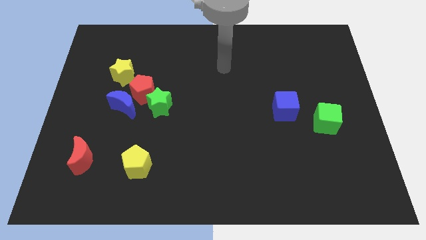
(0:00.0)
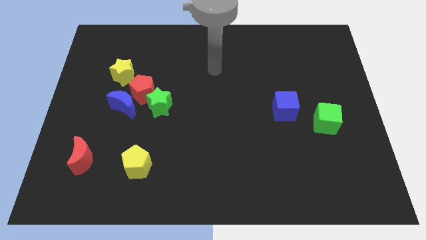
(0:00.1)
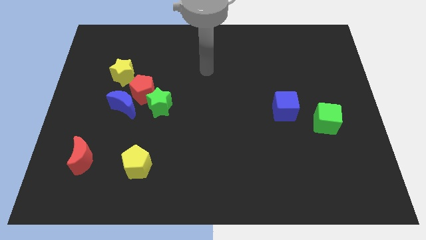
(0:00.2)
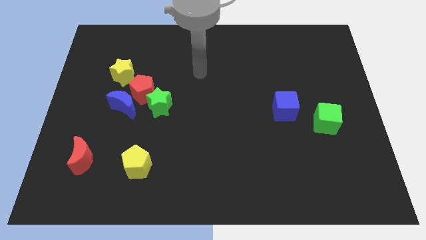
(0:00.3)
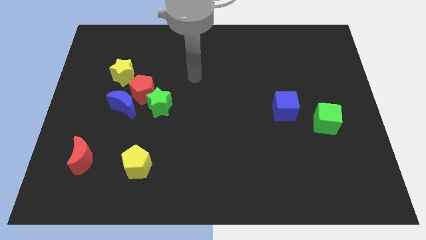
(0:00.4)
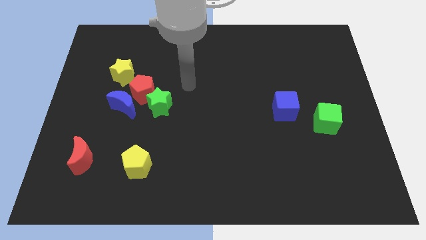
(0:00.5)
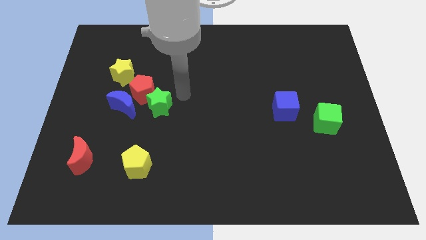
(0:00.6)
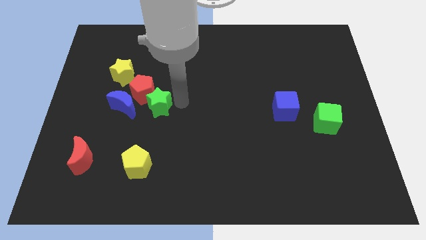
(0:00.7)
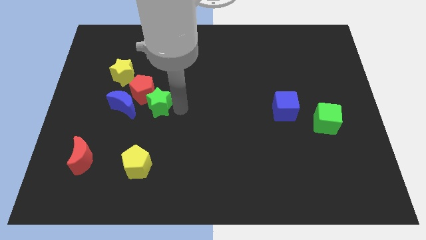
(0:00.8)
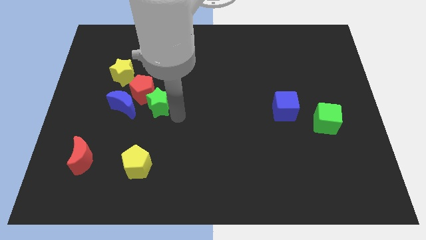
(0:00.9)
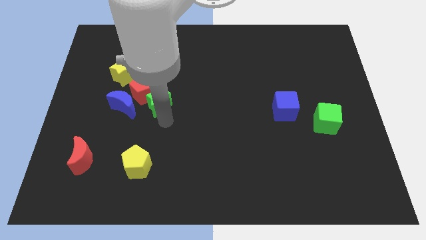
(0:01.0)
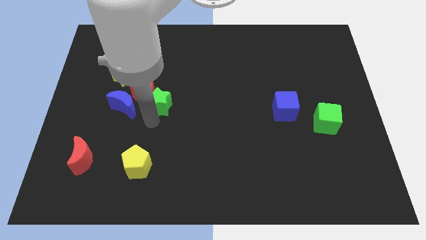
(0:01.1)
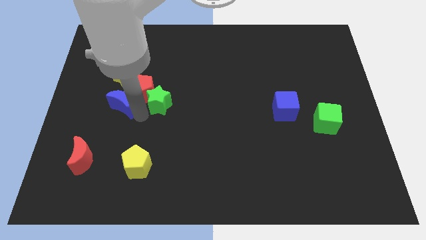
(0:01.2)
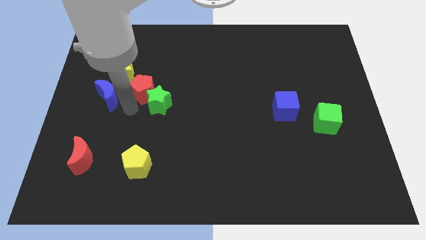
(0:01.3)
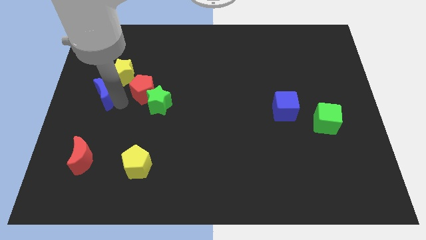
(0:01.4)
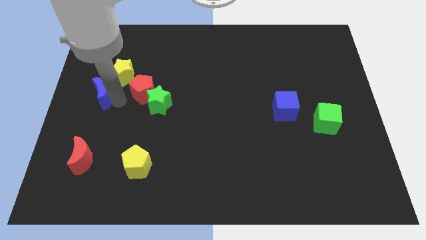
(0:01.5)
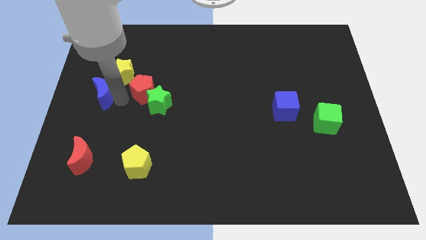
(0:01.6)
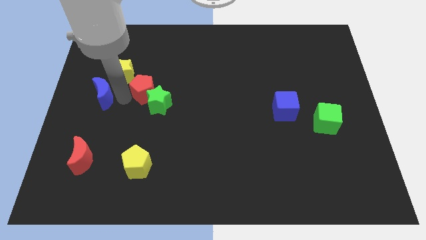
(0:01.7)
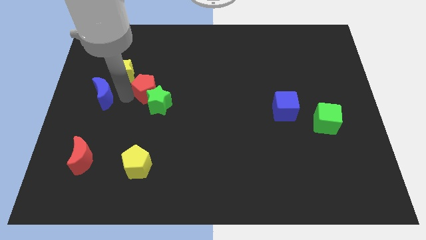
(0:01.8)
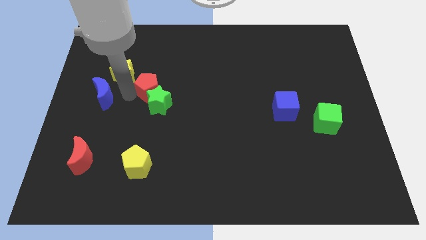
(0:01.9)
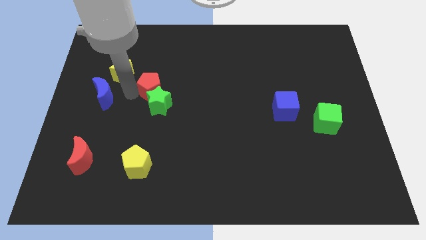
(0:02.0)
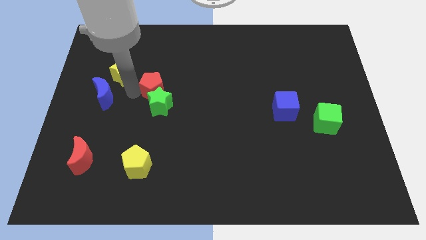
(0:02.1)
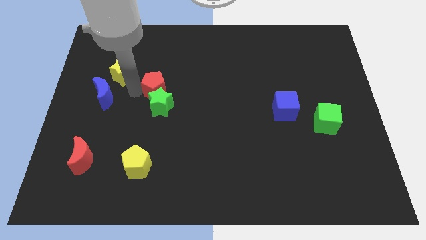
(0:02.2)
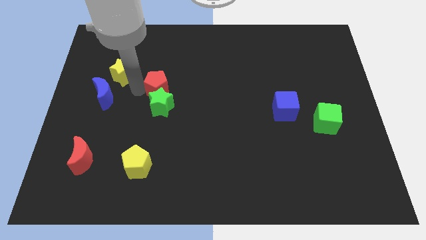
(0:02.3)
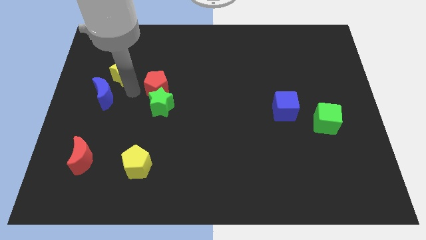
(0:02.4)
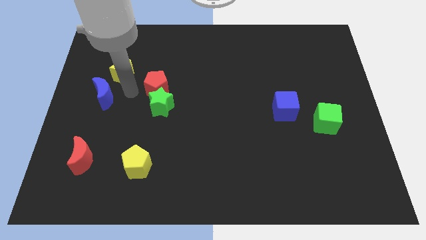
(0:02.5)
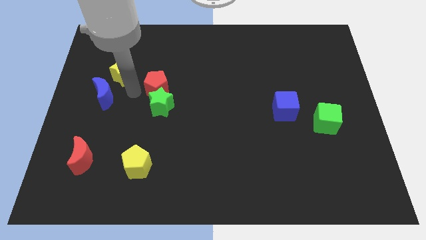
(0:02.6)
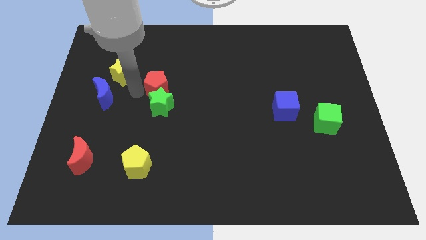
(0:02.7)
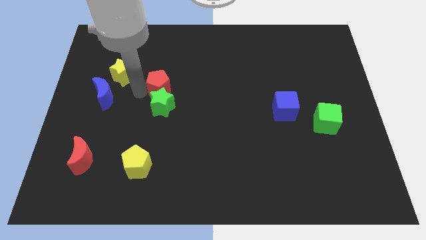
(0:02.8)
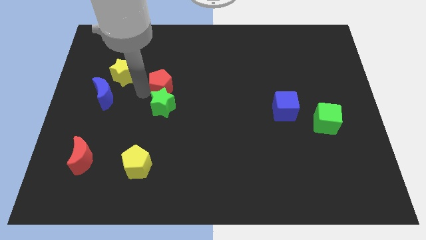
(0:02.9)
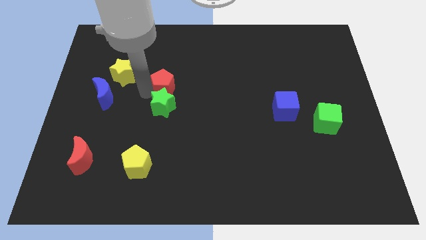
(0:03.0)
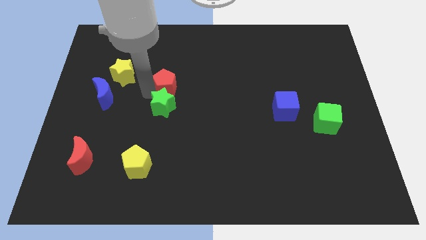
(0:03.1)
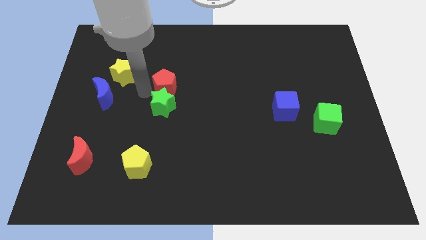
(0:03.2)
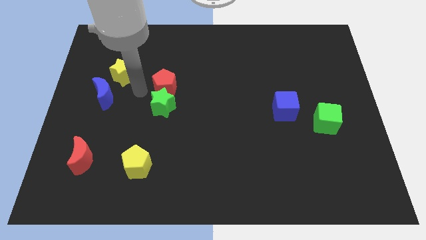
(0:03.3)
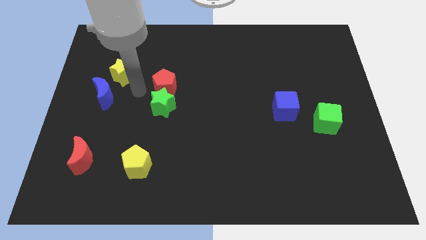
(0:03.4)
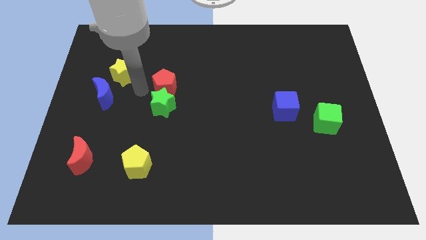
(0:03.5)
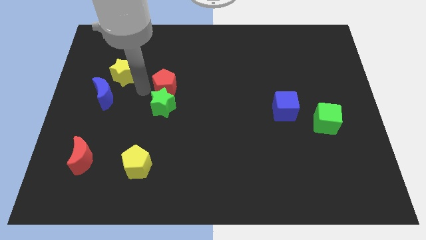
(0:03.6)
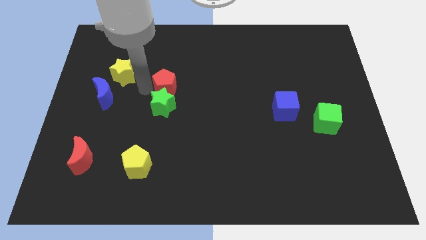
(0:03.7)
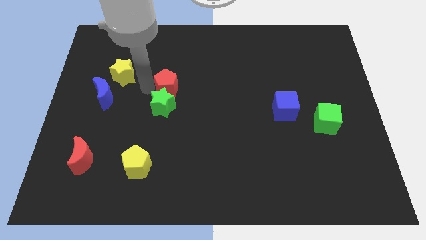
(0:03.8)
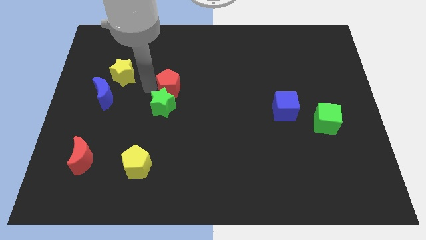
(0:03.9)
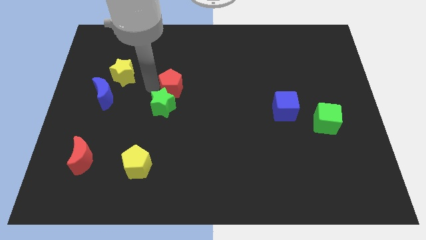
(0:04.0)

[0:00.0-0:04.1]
separate the red pentagon from the blue moon, green star, and yellow star

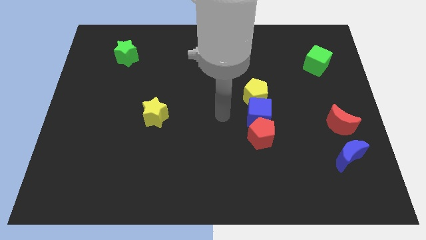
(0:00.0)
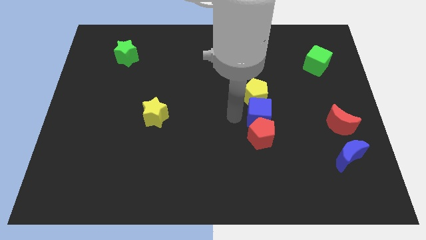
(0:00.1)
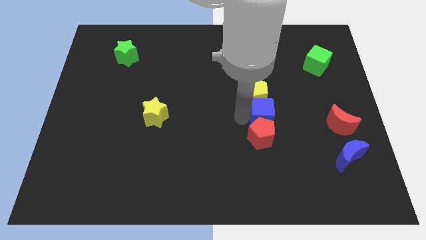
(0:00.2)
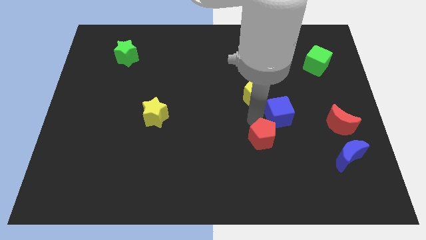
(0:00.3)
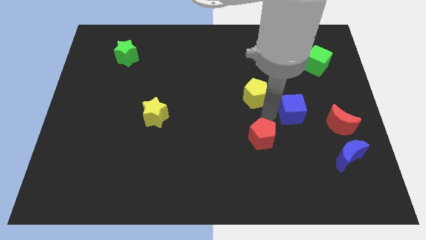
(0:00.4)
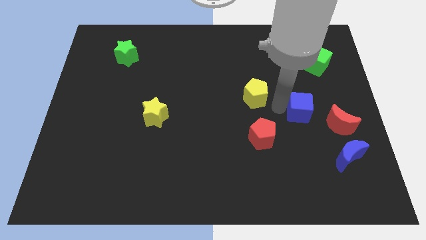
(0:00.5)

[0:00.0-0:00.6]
move the yellow pentagon away from the blue cube

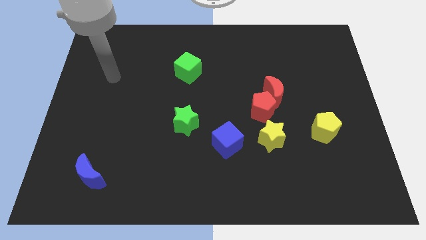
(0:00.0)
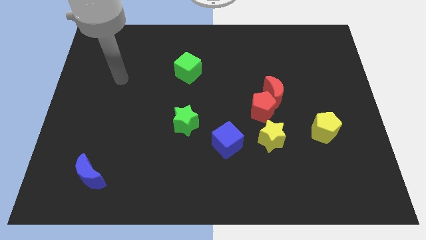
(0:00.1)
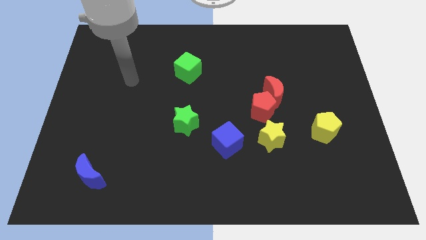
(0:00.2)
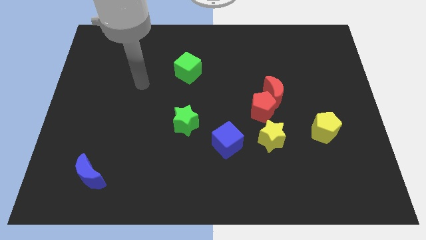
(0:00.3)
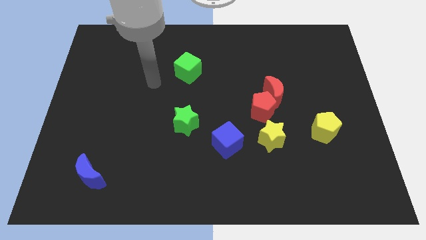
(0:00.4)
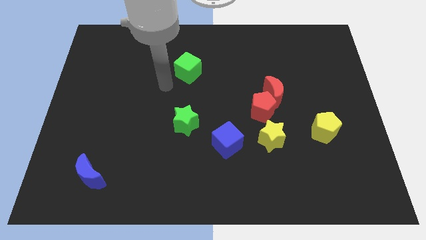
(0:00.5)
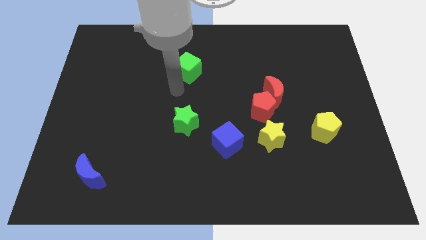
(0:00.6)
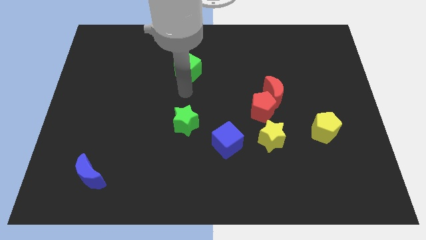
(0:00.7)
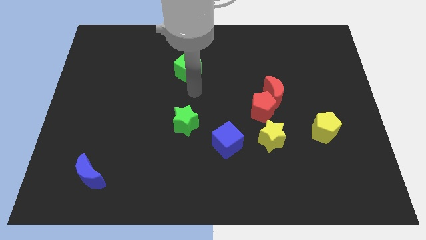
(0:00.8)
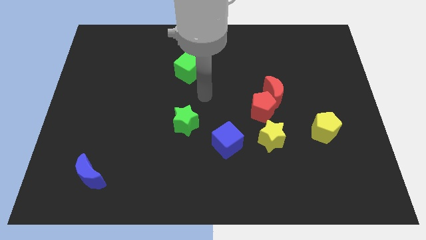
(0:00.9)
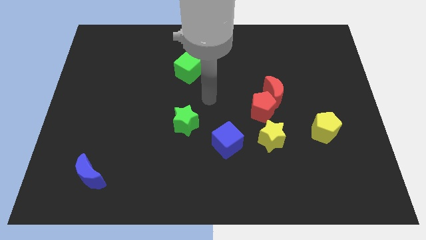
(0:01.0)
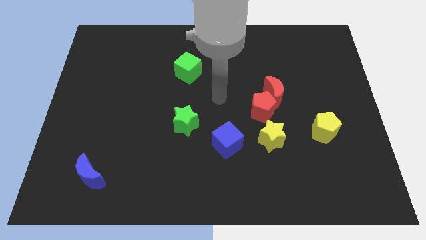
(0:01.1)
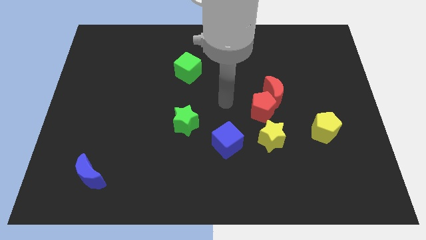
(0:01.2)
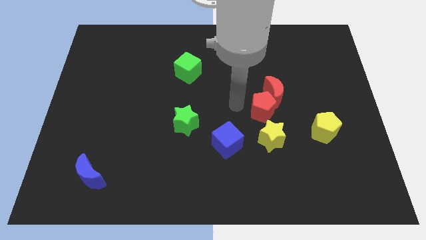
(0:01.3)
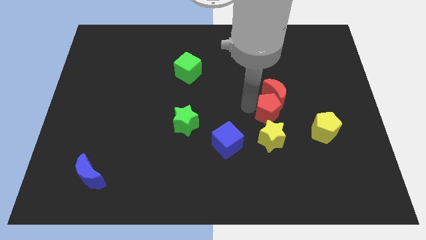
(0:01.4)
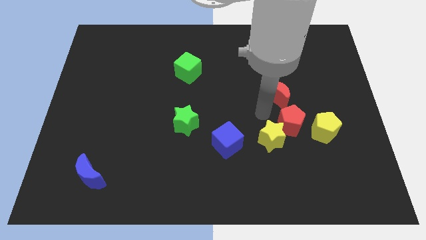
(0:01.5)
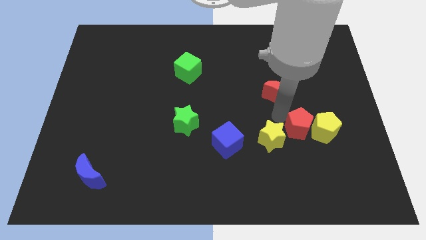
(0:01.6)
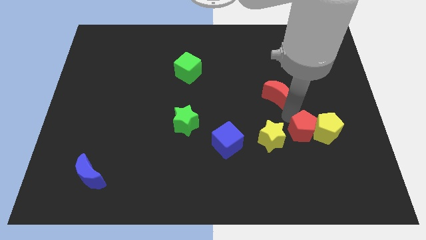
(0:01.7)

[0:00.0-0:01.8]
move the red moon away from the red pentagon

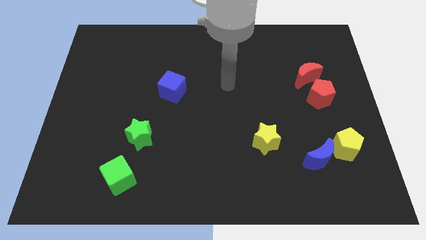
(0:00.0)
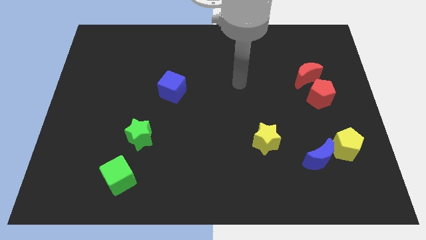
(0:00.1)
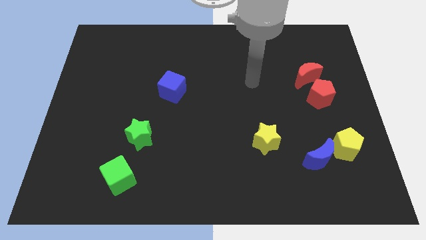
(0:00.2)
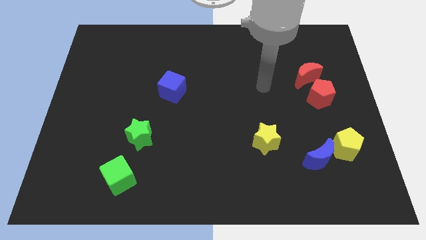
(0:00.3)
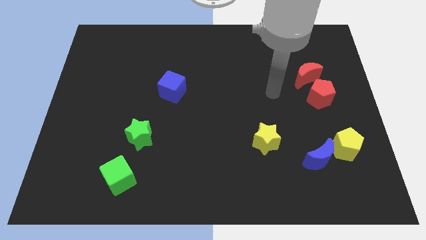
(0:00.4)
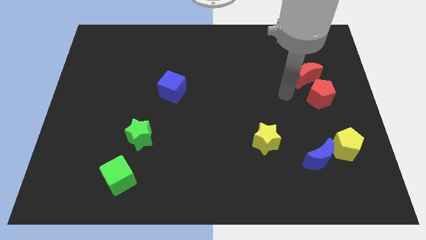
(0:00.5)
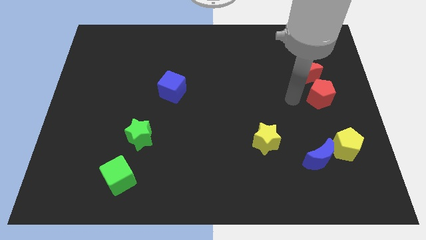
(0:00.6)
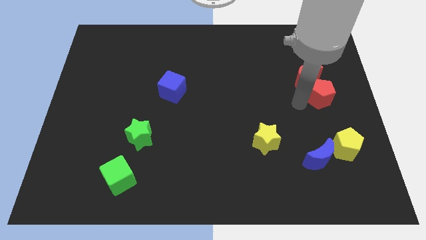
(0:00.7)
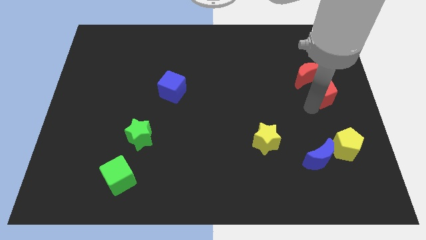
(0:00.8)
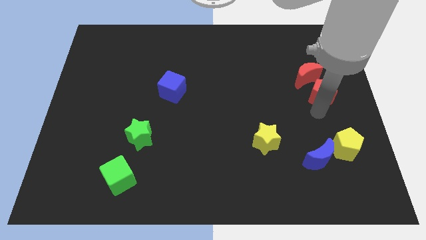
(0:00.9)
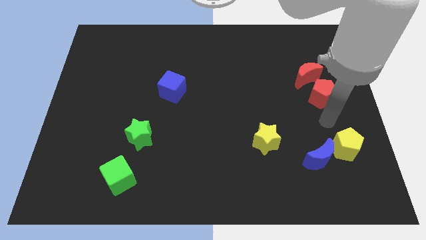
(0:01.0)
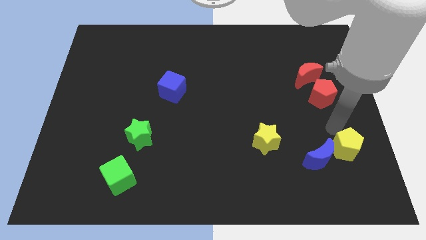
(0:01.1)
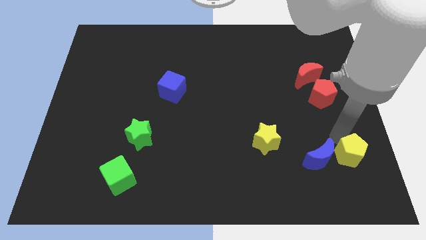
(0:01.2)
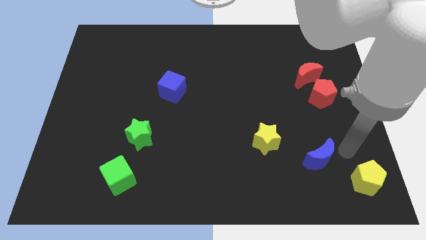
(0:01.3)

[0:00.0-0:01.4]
pull the blue moon apart from the yellow pentagon

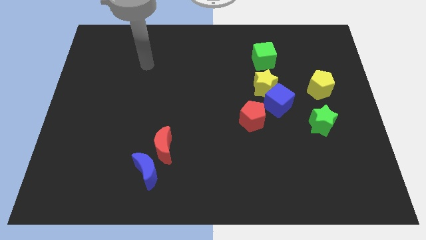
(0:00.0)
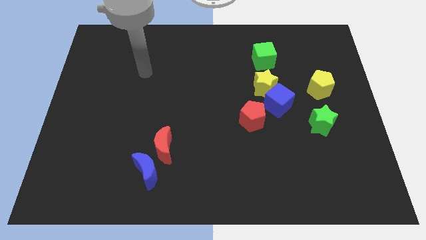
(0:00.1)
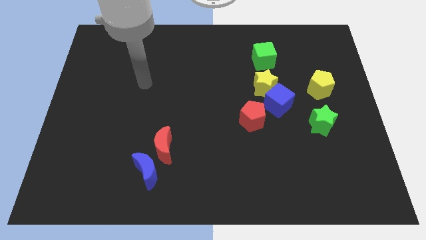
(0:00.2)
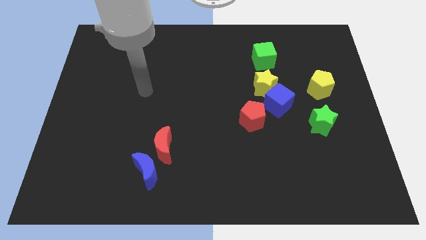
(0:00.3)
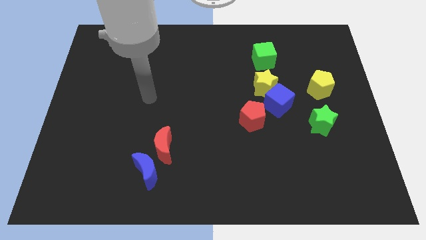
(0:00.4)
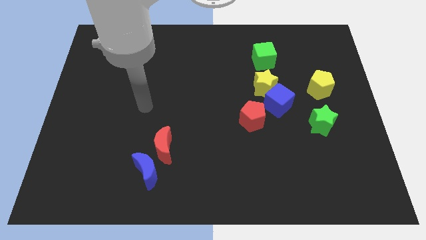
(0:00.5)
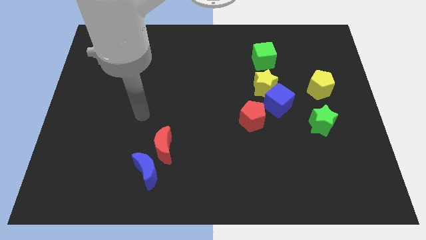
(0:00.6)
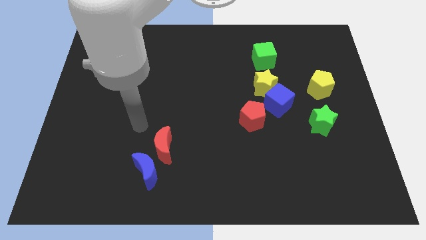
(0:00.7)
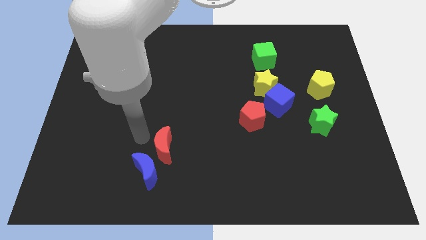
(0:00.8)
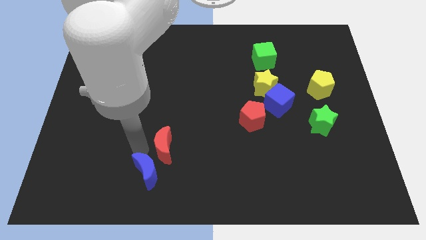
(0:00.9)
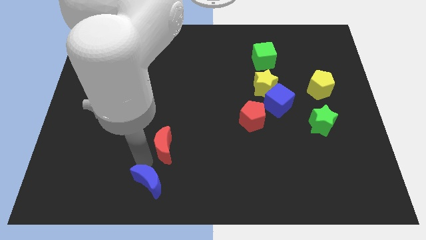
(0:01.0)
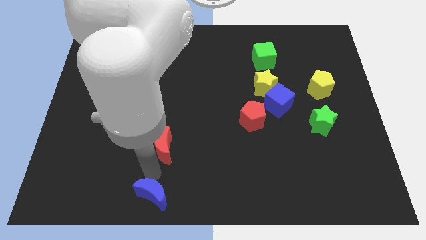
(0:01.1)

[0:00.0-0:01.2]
move the red moon away from the blue moon

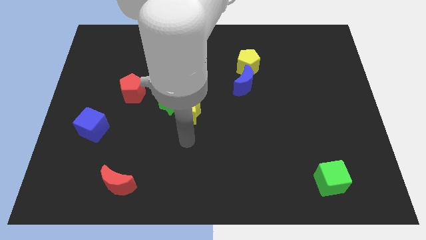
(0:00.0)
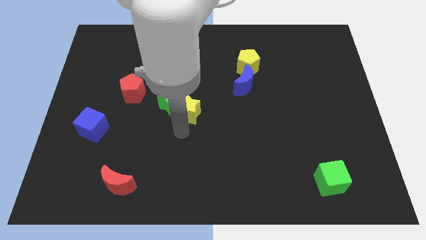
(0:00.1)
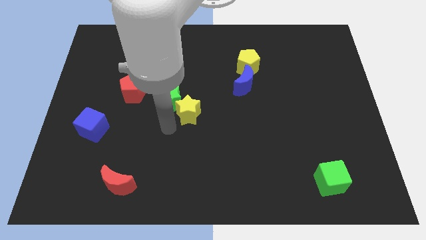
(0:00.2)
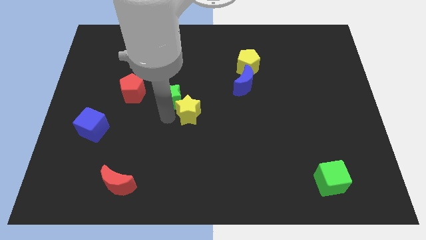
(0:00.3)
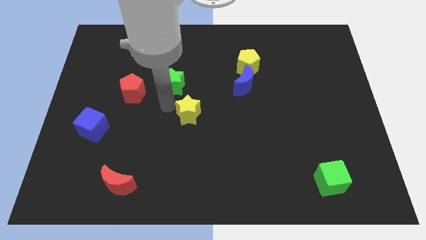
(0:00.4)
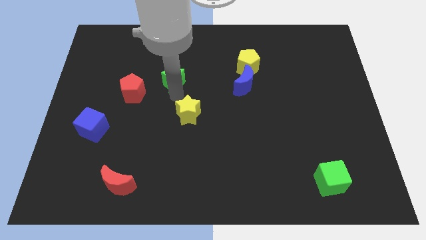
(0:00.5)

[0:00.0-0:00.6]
move the yellow star away from the green star
